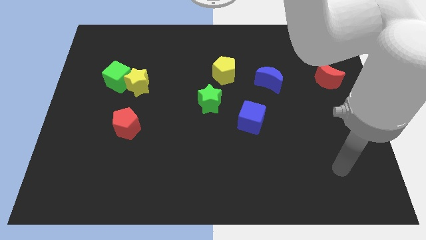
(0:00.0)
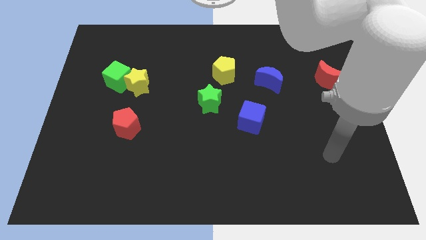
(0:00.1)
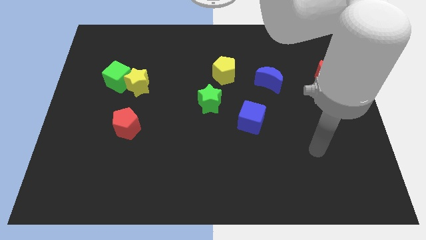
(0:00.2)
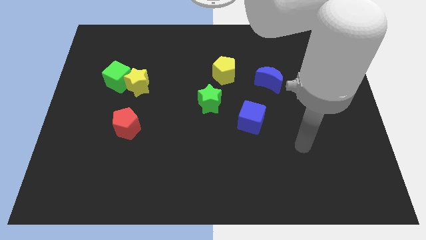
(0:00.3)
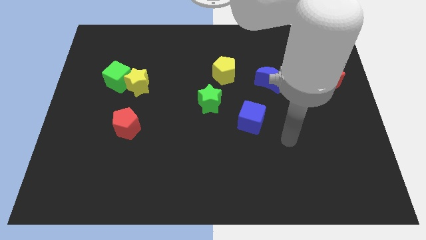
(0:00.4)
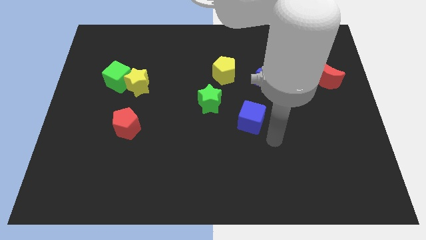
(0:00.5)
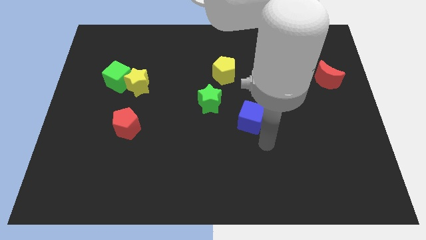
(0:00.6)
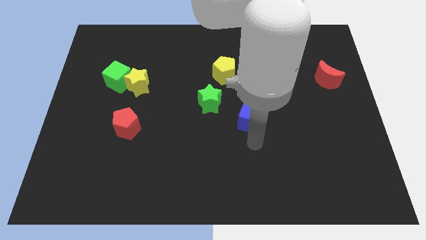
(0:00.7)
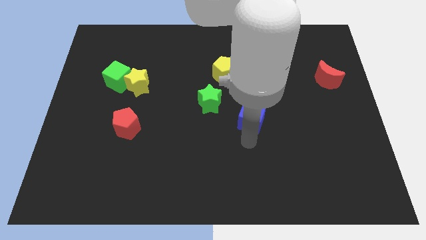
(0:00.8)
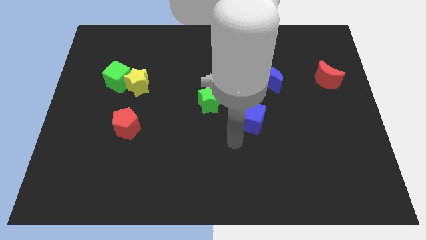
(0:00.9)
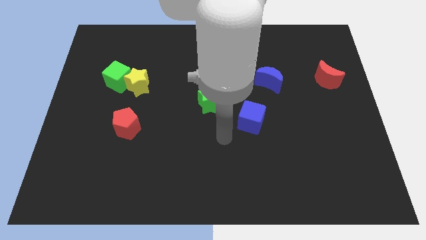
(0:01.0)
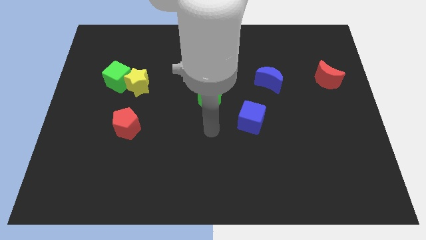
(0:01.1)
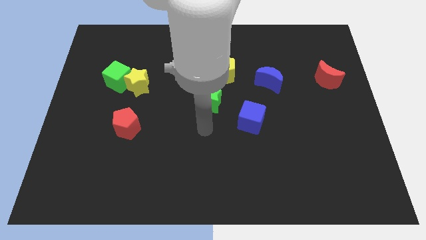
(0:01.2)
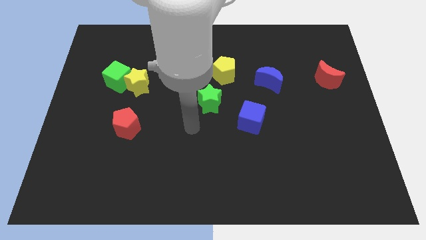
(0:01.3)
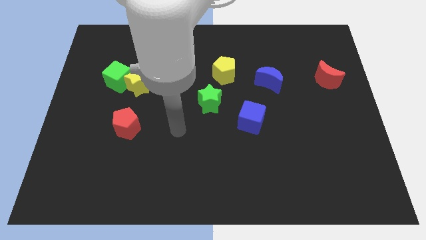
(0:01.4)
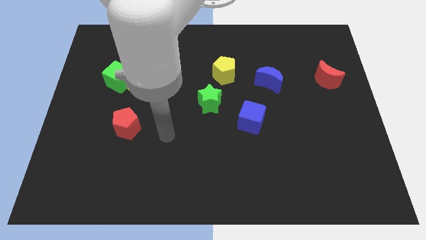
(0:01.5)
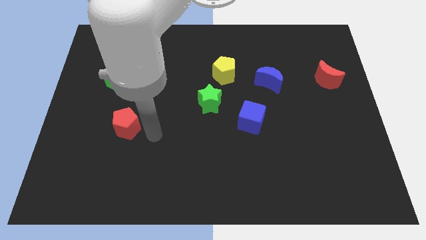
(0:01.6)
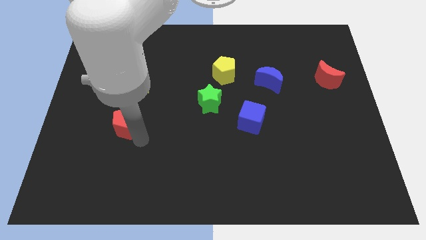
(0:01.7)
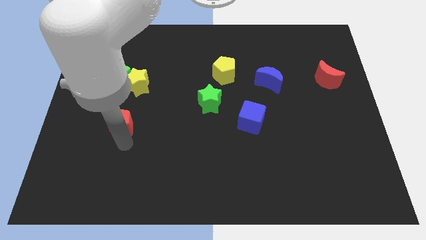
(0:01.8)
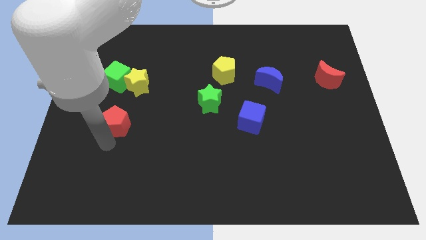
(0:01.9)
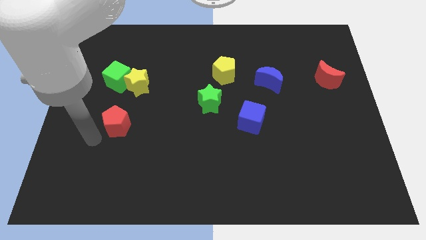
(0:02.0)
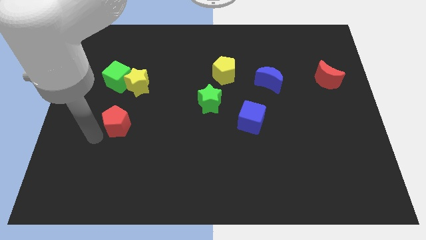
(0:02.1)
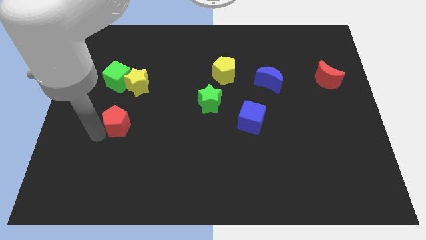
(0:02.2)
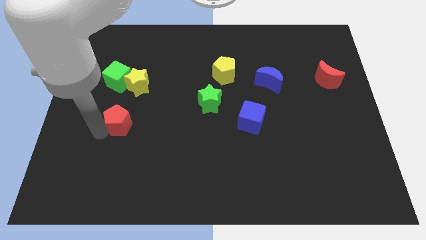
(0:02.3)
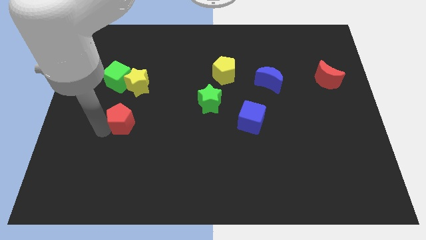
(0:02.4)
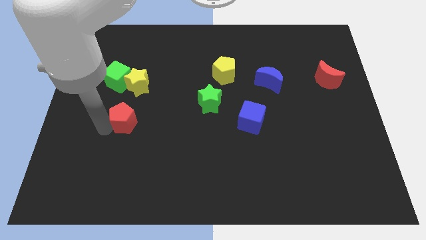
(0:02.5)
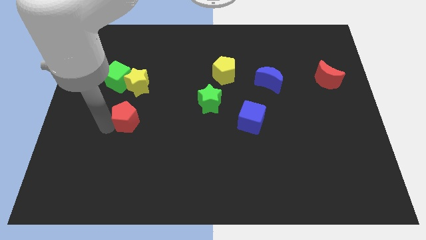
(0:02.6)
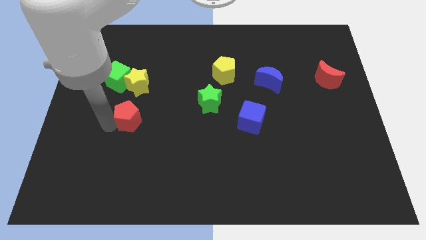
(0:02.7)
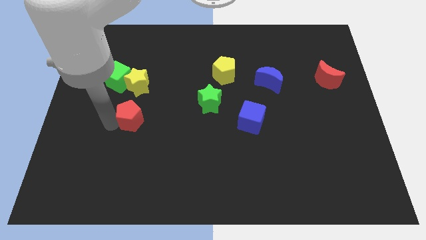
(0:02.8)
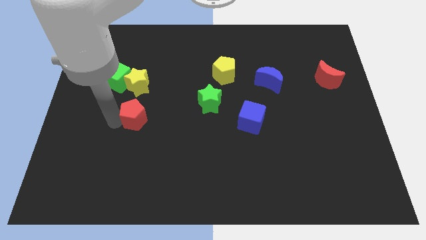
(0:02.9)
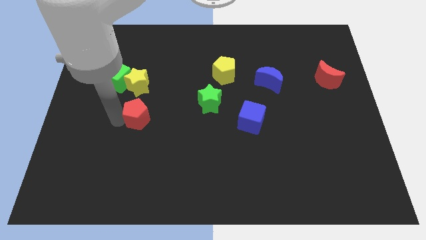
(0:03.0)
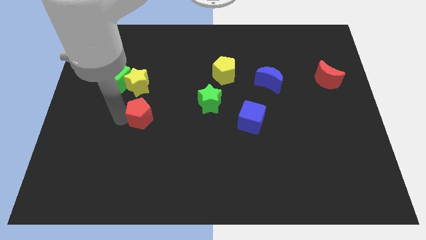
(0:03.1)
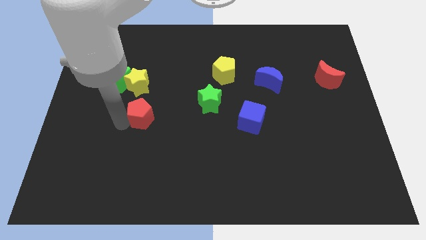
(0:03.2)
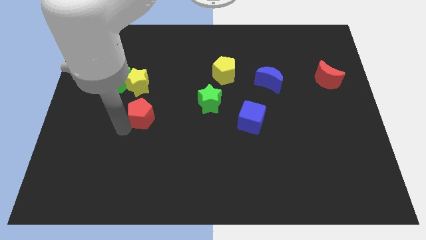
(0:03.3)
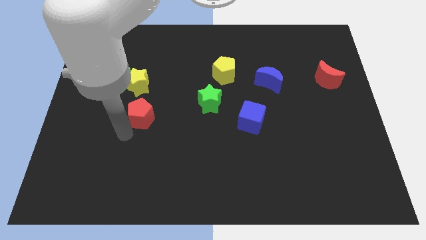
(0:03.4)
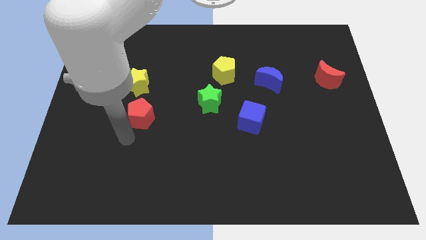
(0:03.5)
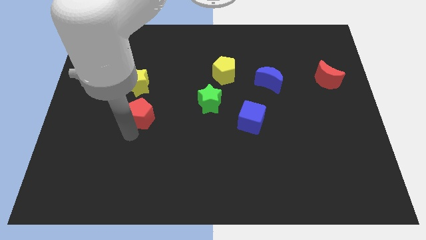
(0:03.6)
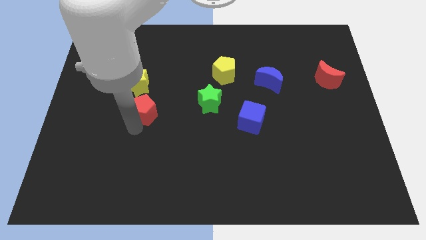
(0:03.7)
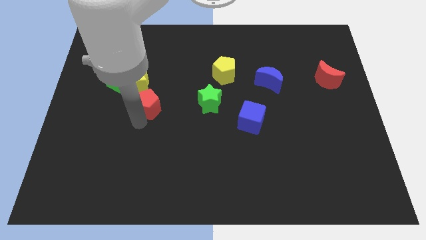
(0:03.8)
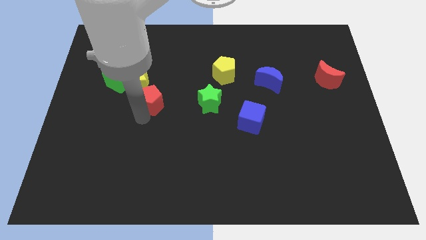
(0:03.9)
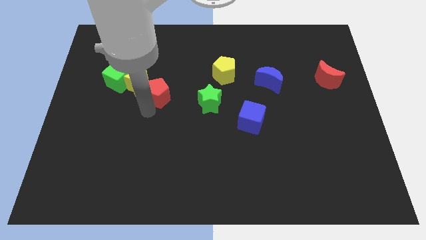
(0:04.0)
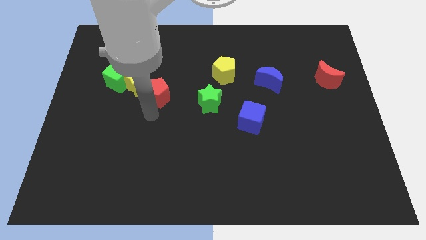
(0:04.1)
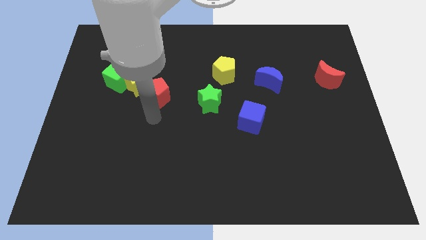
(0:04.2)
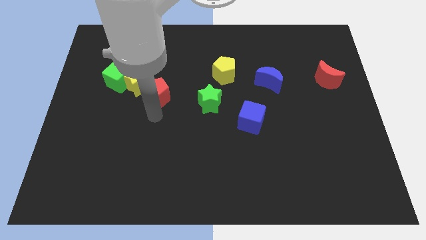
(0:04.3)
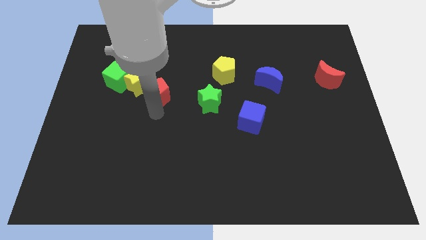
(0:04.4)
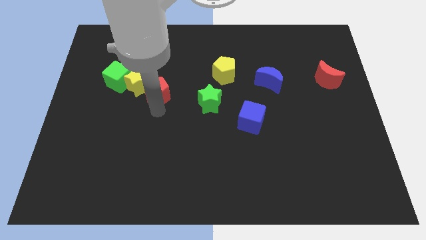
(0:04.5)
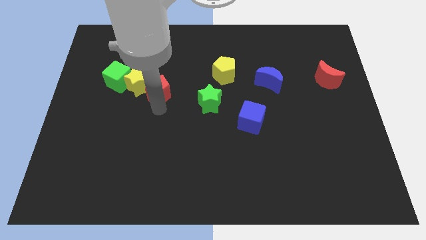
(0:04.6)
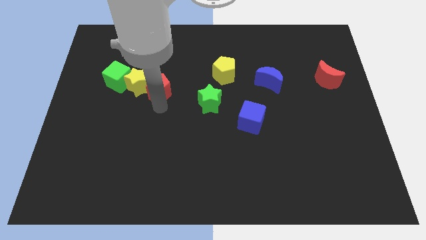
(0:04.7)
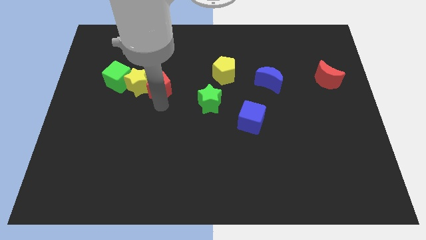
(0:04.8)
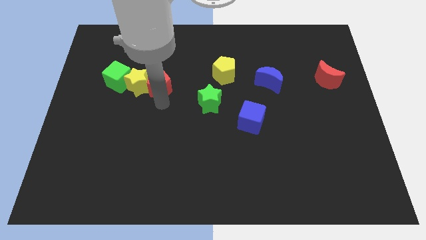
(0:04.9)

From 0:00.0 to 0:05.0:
move the red pentagon diagonally up and to the right of the yellow star

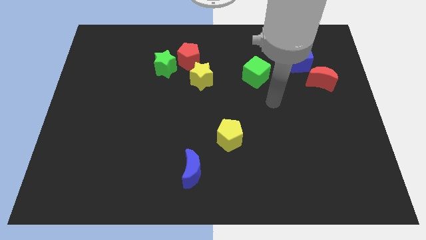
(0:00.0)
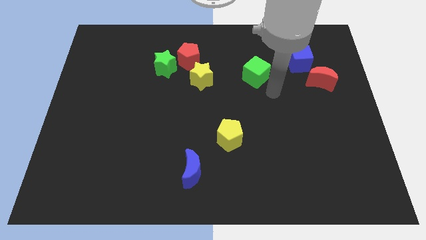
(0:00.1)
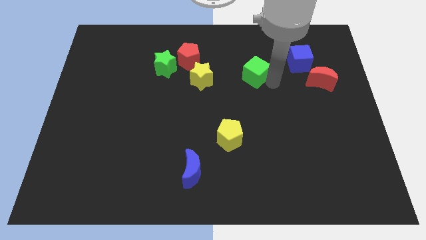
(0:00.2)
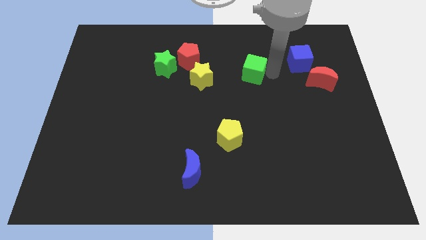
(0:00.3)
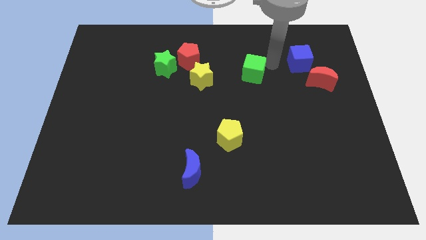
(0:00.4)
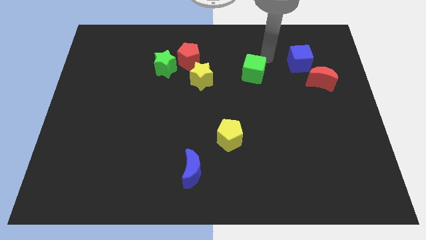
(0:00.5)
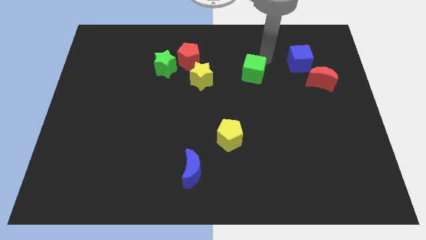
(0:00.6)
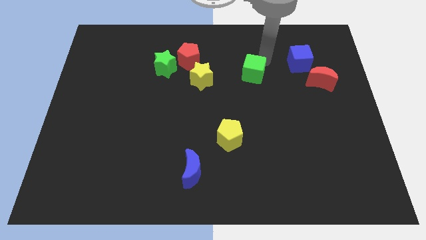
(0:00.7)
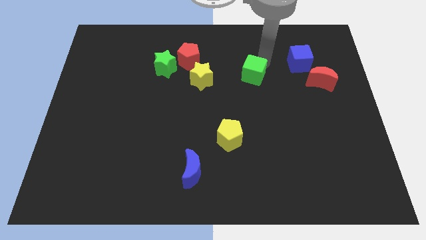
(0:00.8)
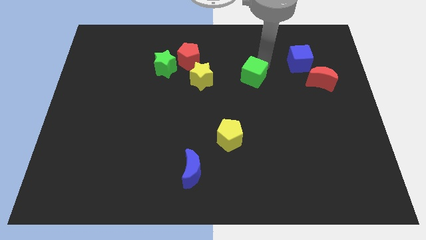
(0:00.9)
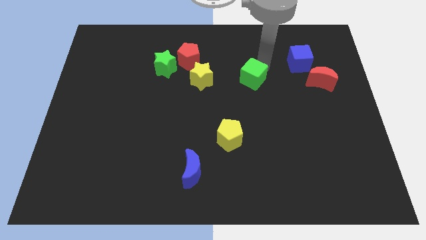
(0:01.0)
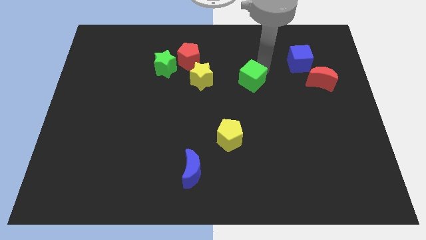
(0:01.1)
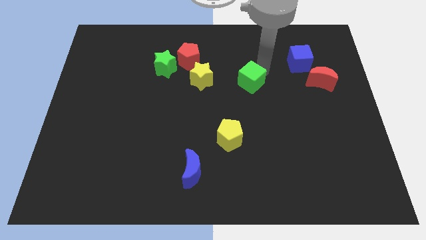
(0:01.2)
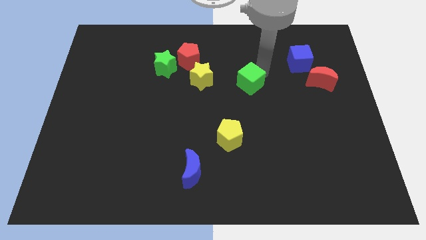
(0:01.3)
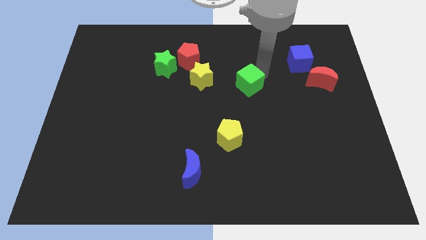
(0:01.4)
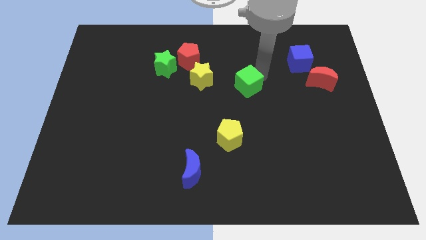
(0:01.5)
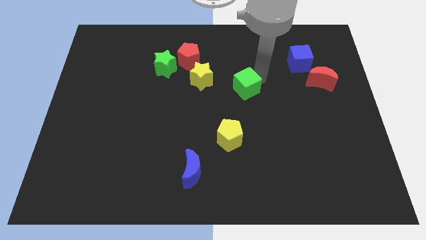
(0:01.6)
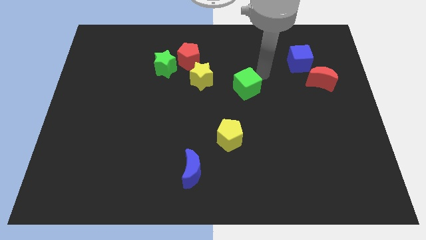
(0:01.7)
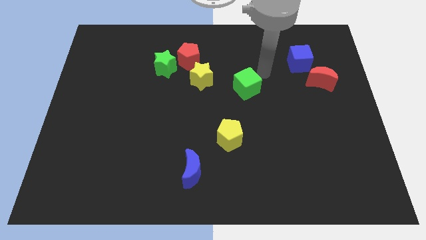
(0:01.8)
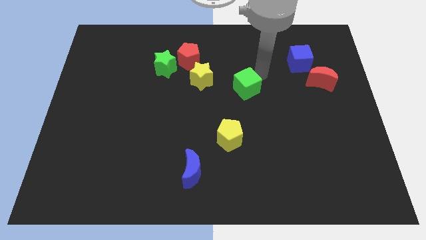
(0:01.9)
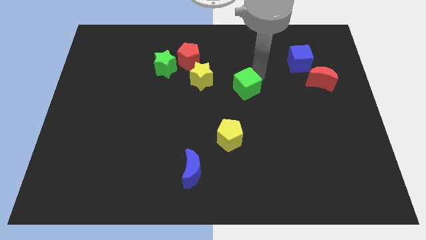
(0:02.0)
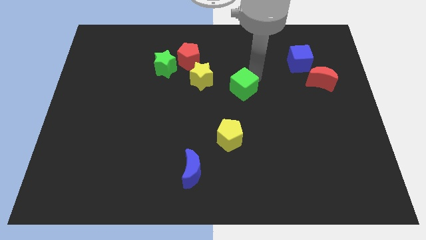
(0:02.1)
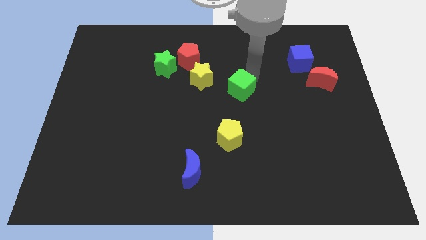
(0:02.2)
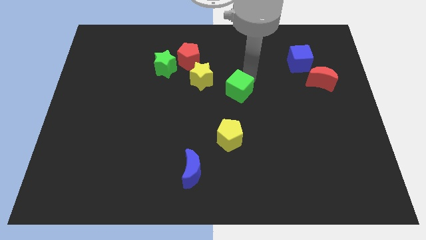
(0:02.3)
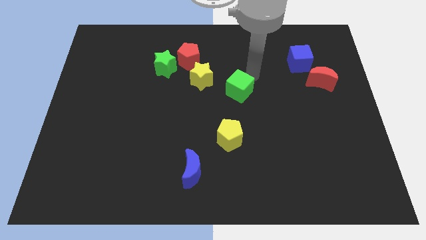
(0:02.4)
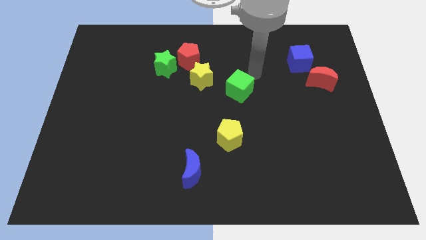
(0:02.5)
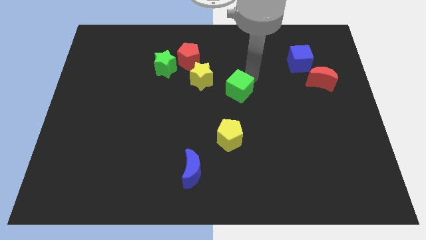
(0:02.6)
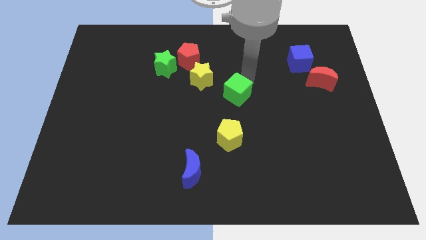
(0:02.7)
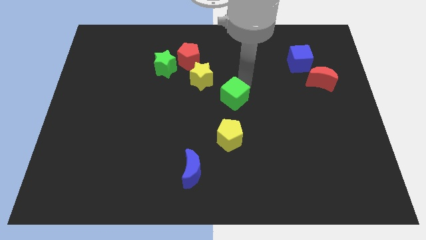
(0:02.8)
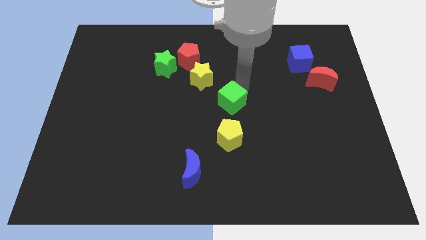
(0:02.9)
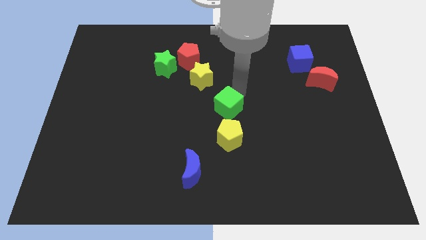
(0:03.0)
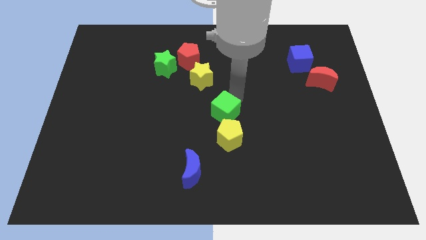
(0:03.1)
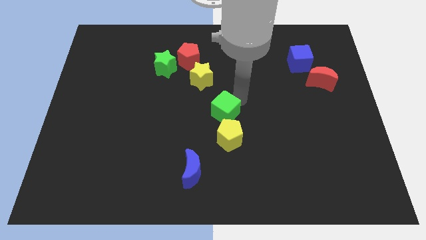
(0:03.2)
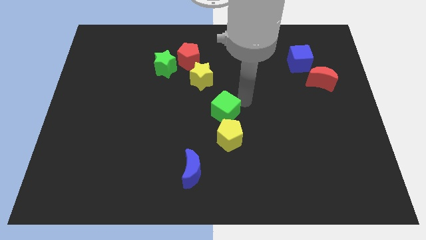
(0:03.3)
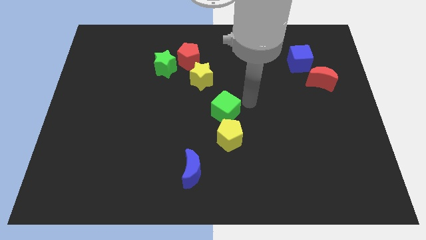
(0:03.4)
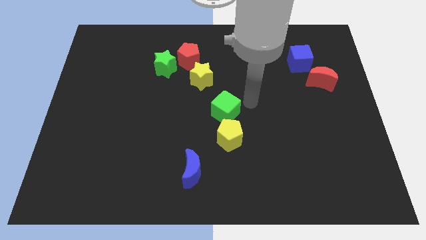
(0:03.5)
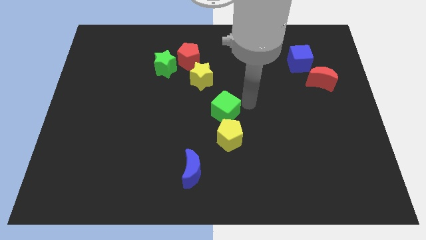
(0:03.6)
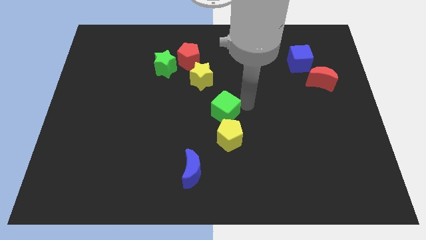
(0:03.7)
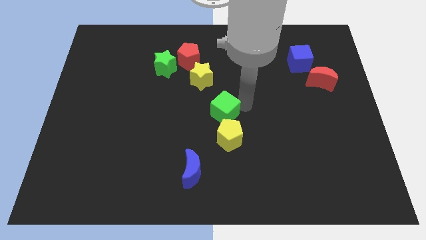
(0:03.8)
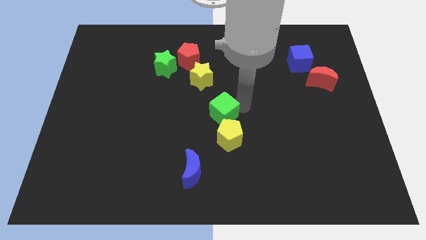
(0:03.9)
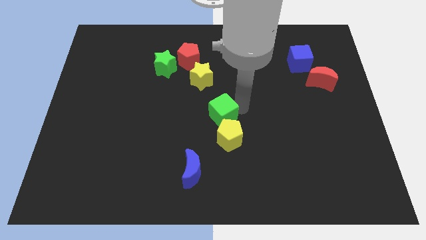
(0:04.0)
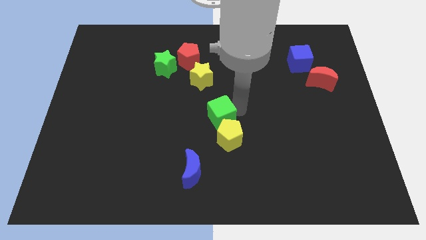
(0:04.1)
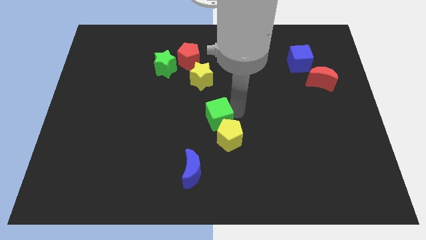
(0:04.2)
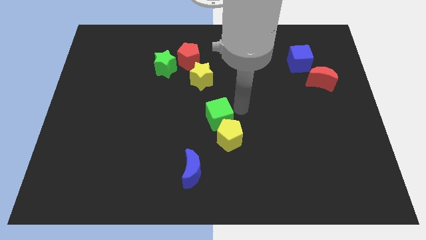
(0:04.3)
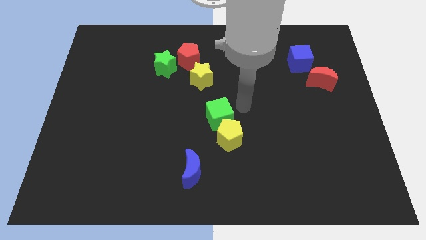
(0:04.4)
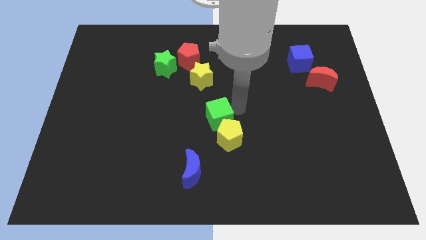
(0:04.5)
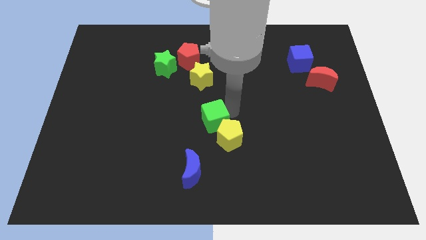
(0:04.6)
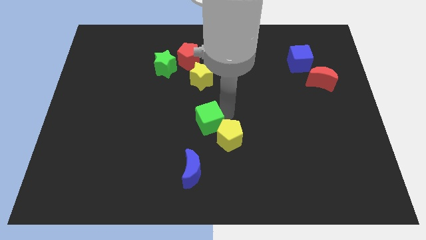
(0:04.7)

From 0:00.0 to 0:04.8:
put the green cube to the left side of the yellow pentagon
